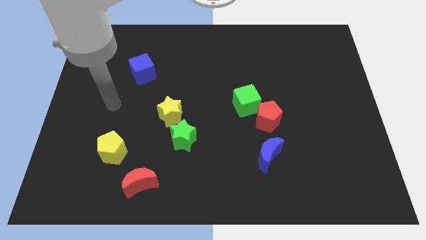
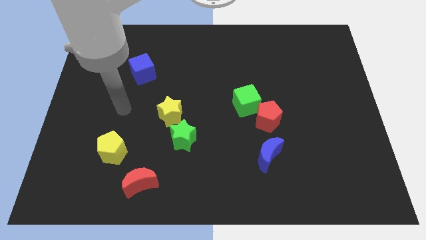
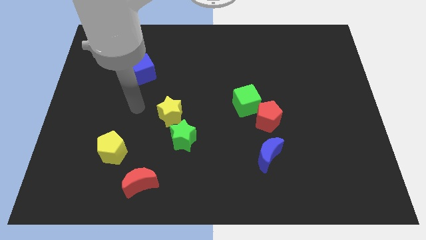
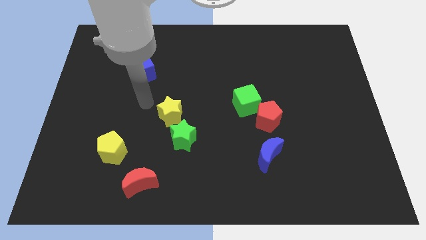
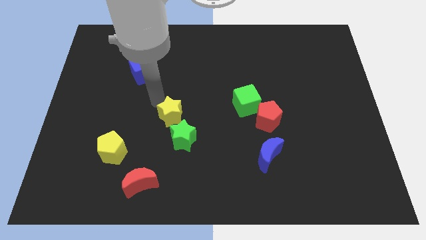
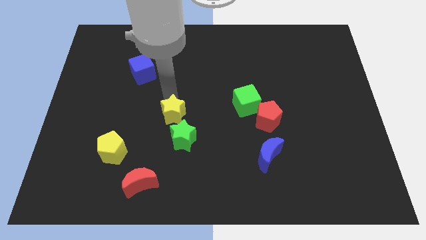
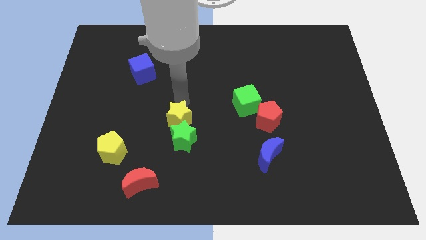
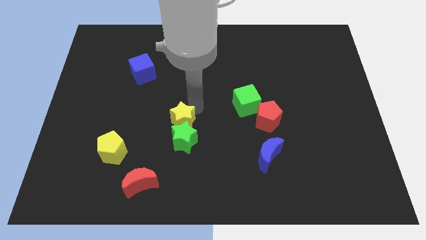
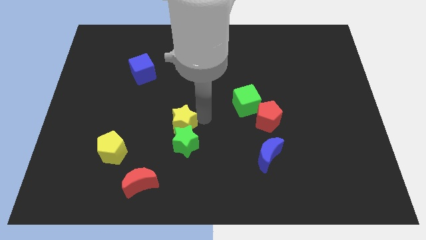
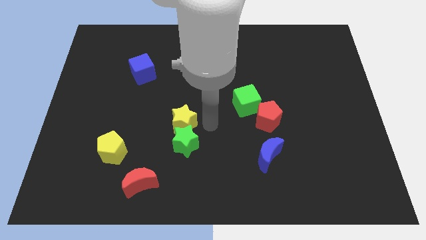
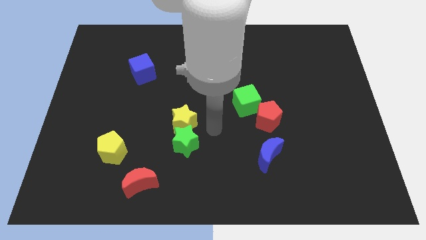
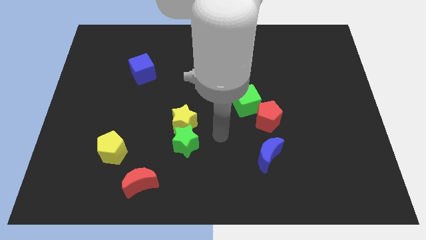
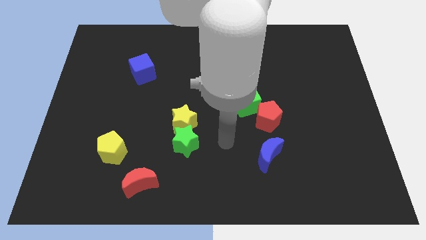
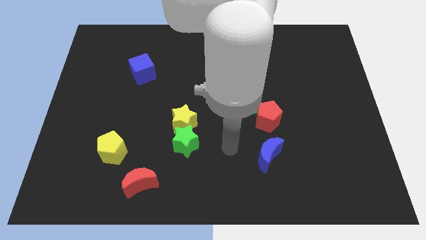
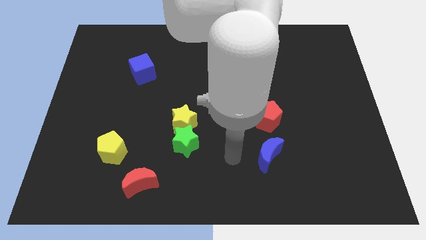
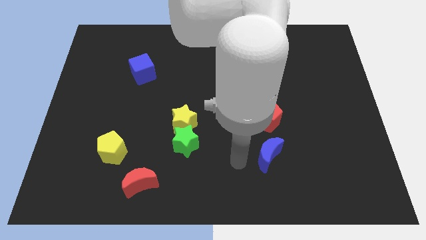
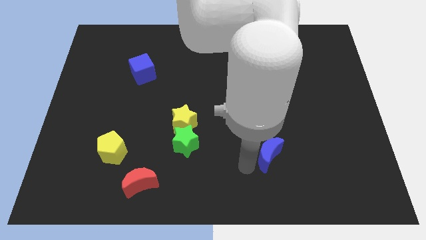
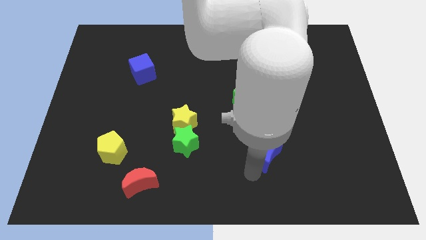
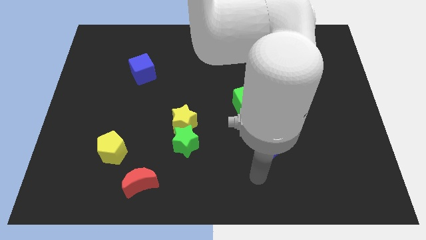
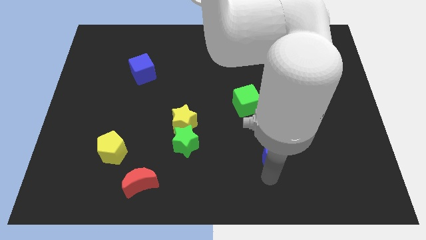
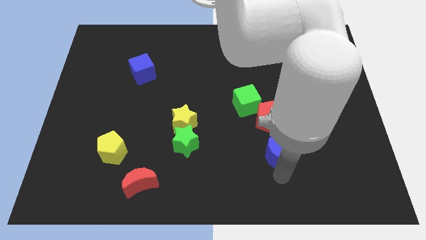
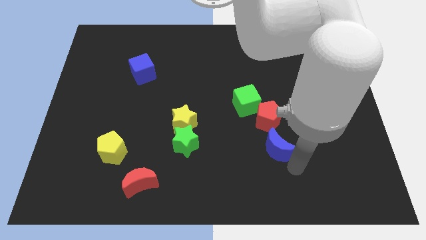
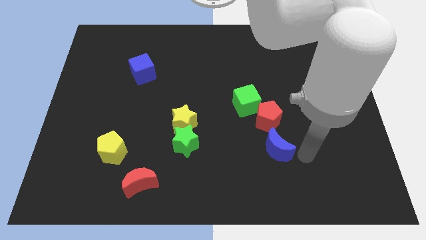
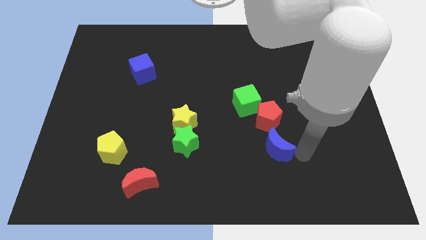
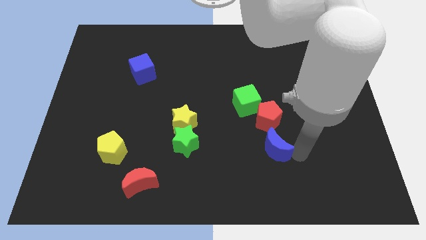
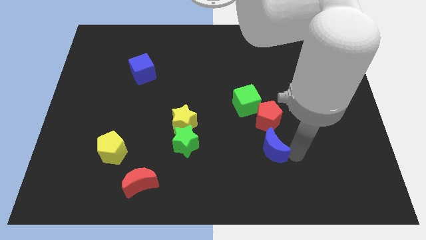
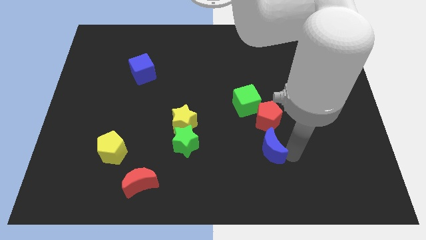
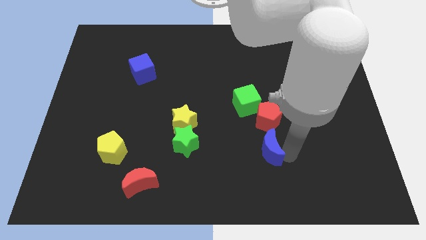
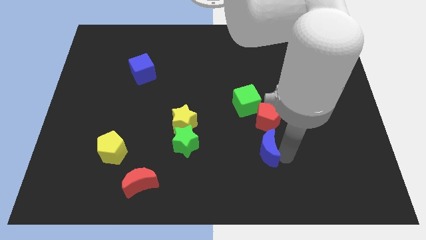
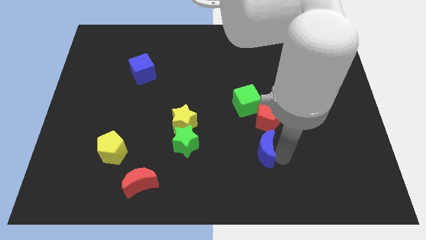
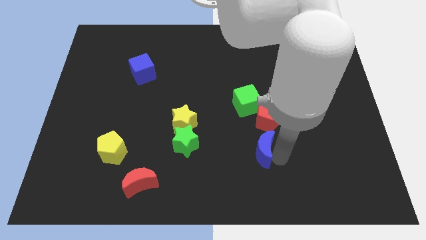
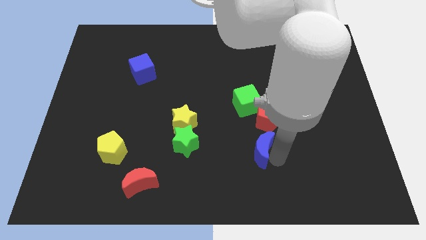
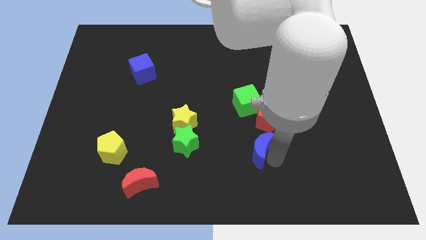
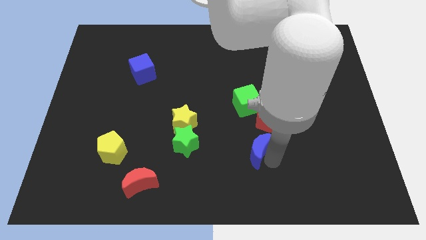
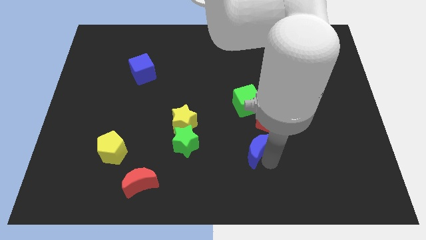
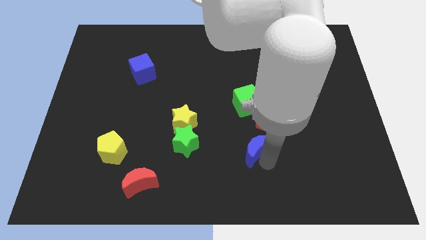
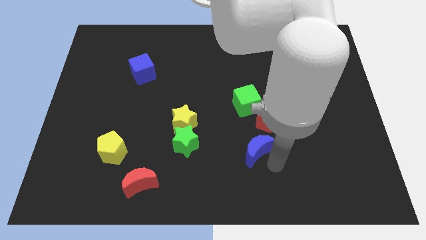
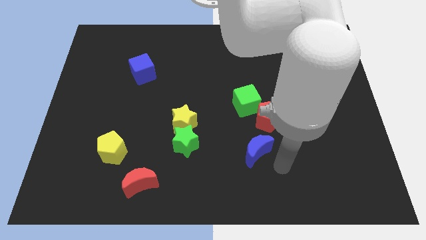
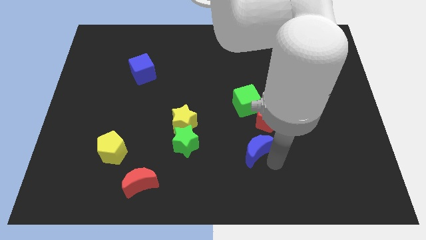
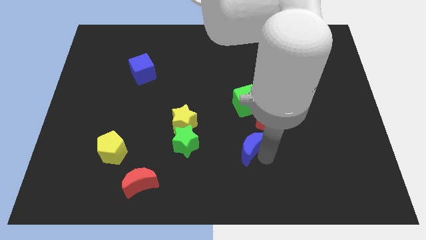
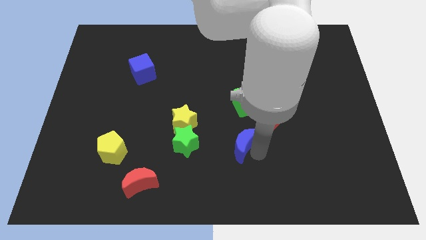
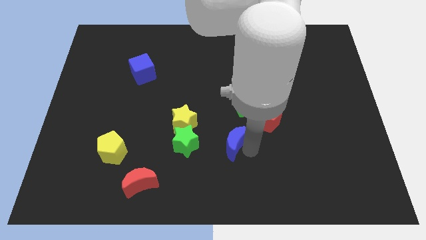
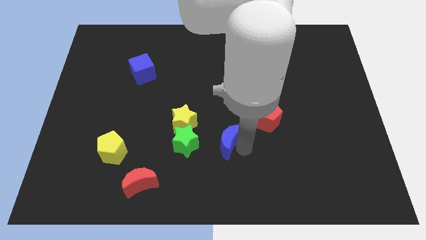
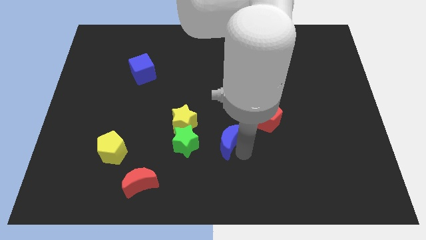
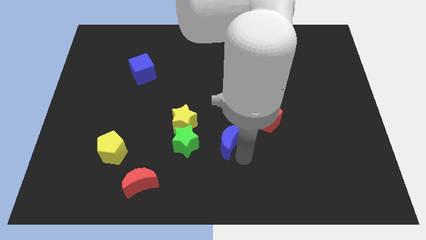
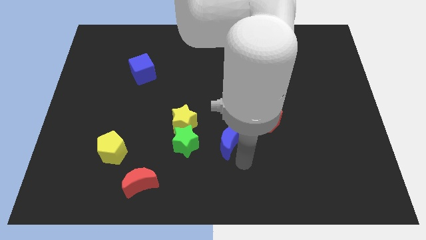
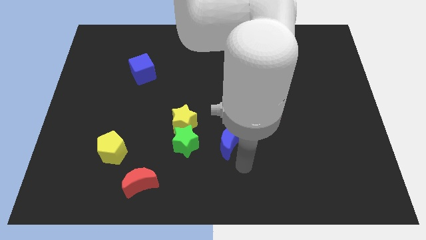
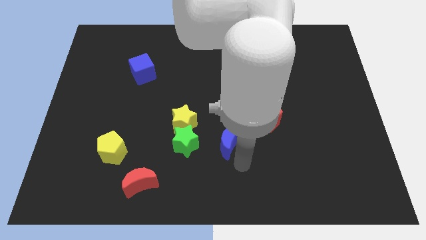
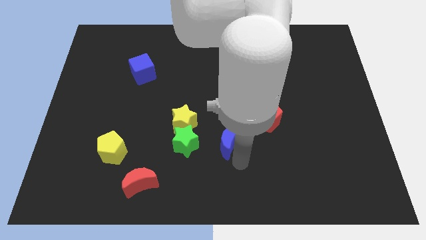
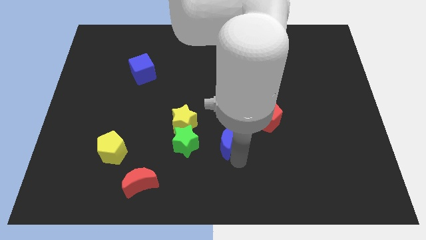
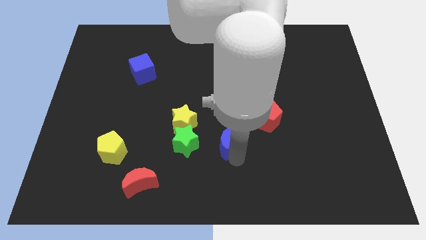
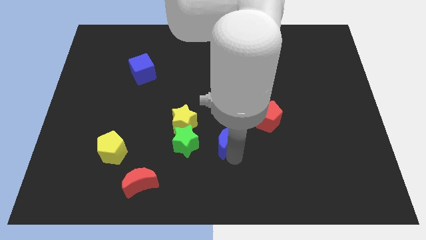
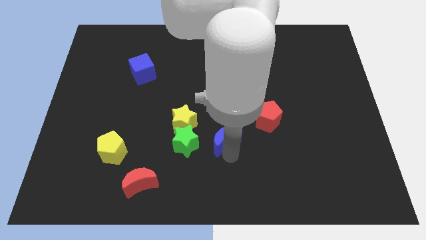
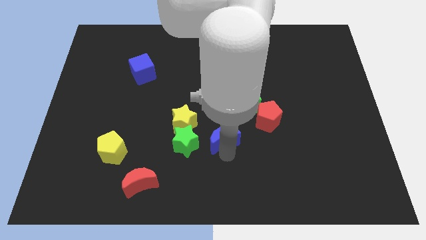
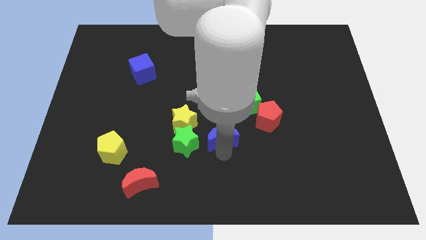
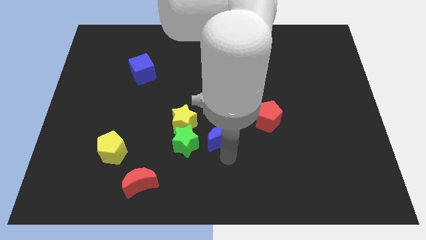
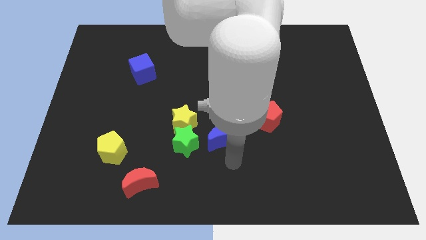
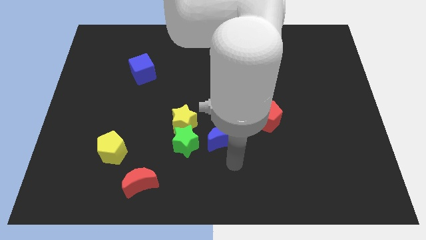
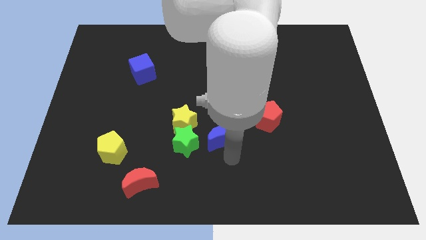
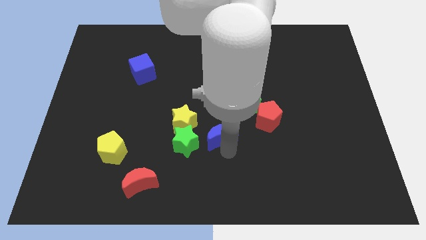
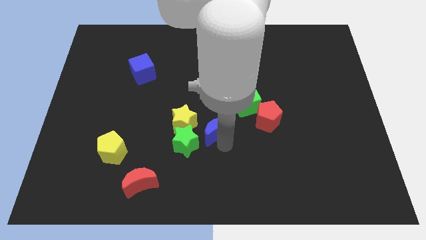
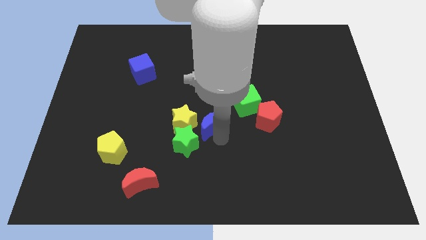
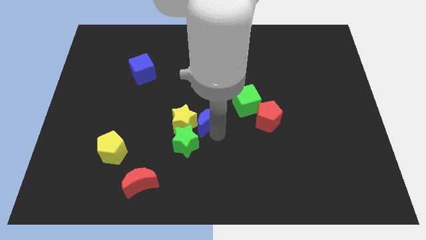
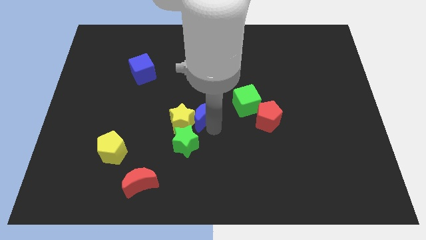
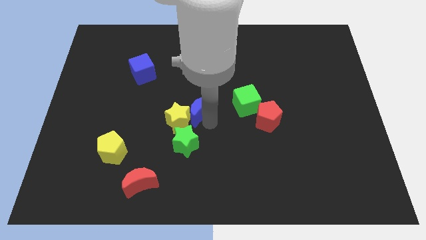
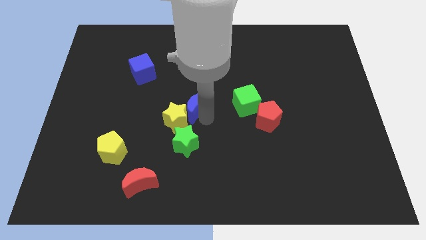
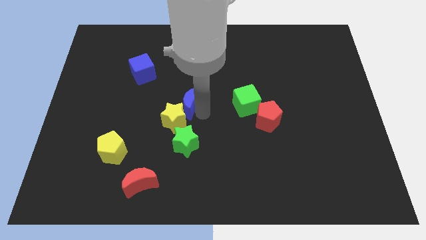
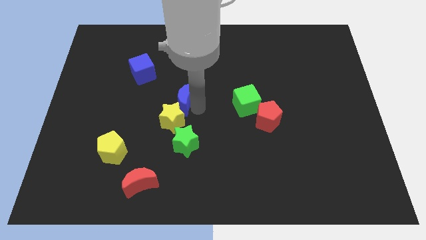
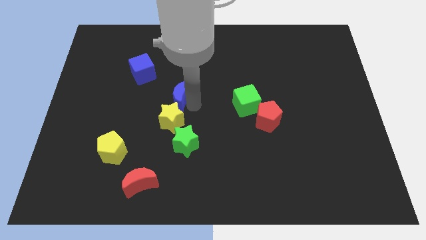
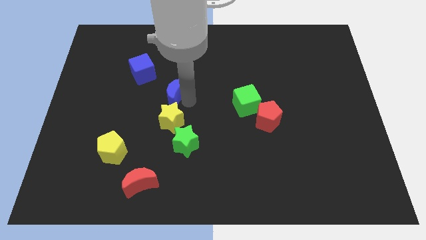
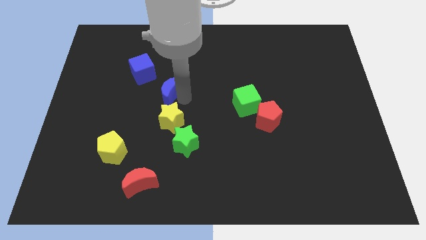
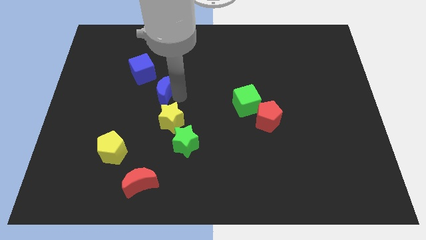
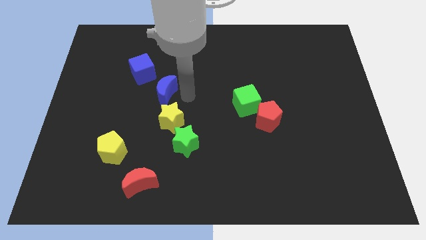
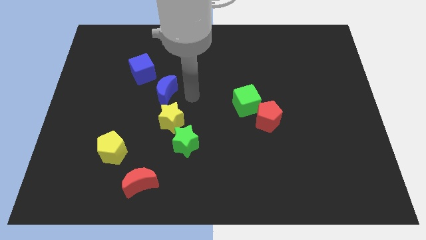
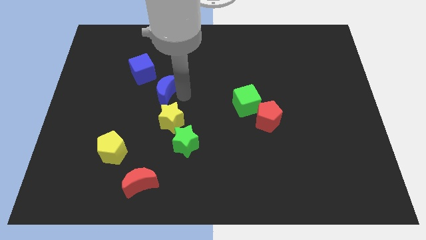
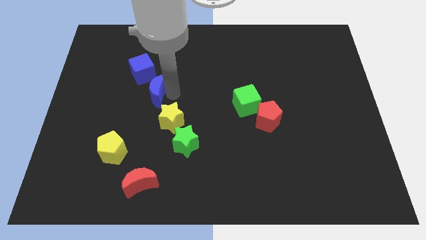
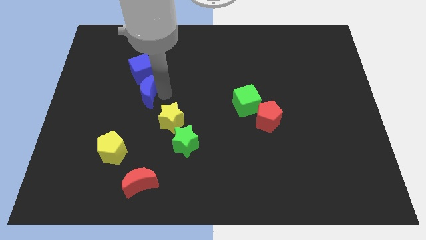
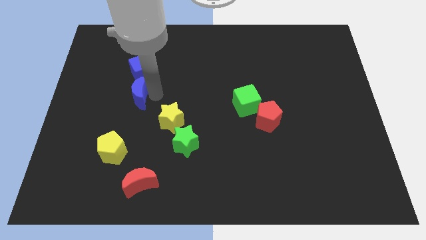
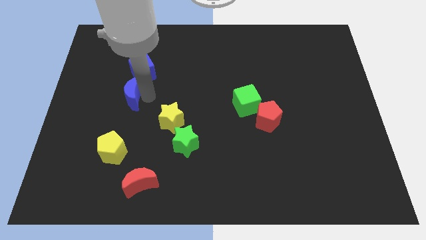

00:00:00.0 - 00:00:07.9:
move the blue moon diagonally down and to the left of the blue cube
